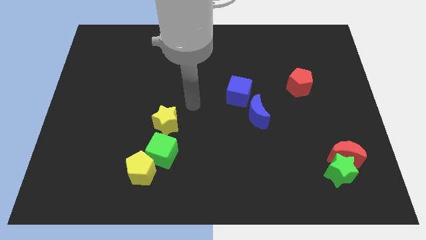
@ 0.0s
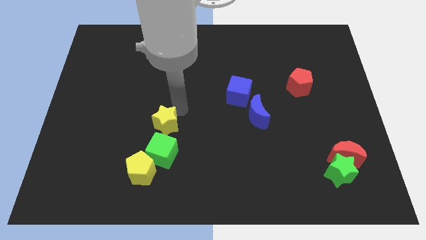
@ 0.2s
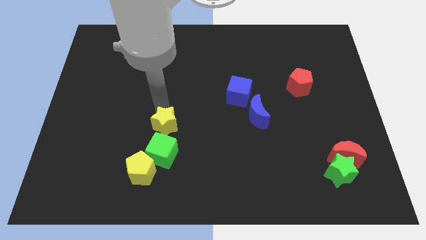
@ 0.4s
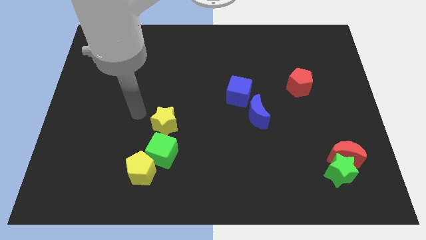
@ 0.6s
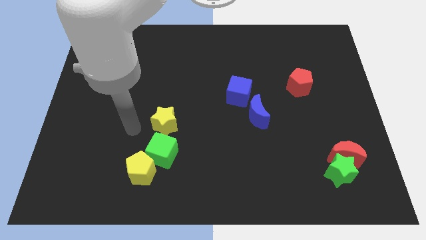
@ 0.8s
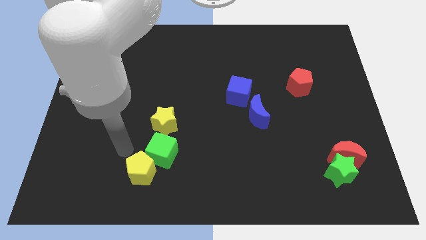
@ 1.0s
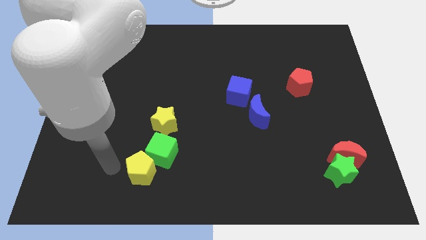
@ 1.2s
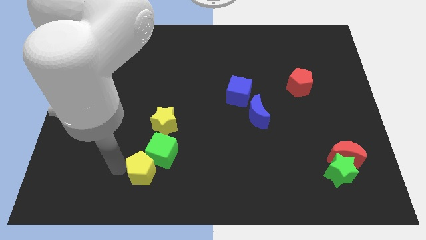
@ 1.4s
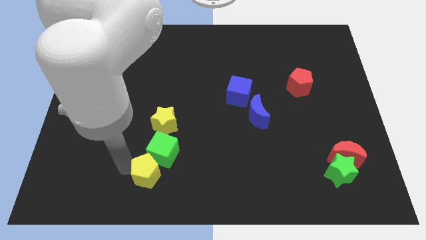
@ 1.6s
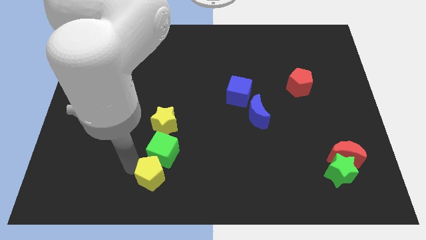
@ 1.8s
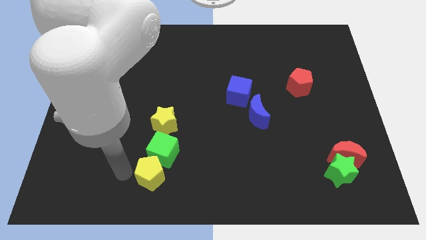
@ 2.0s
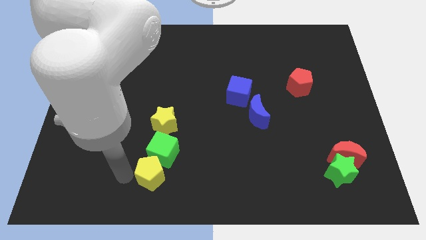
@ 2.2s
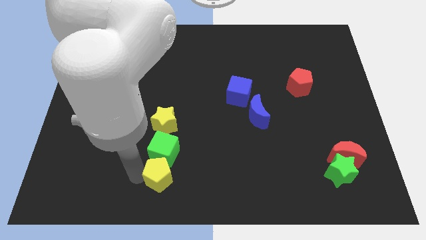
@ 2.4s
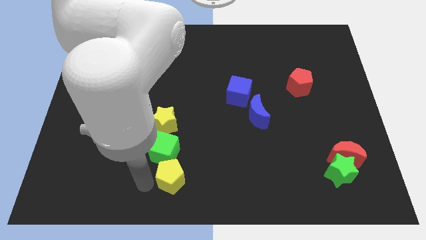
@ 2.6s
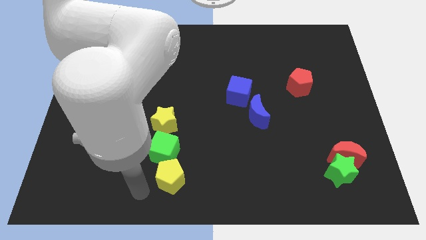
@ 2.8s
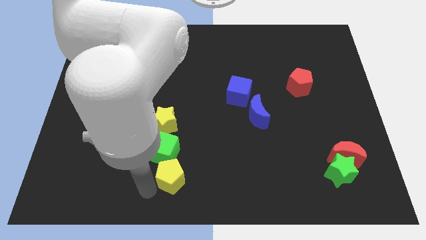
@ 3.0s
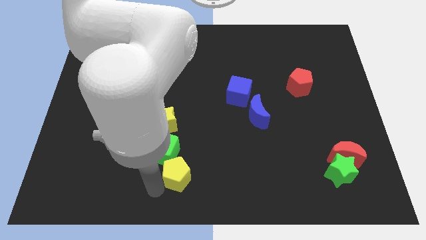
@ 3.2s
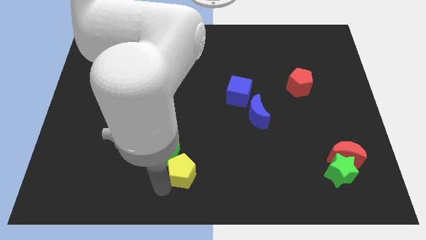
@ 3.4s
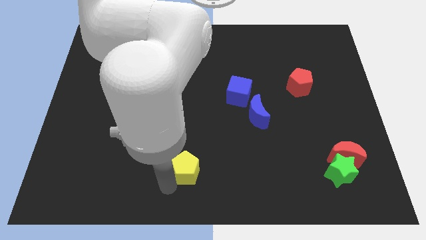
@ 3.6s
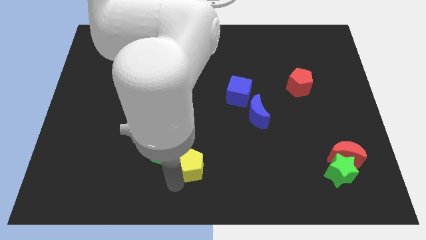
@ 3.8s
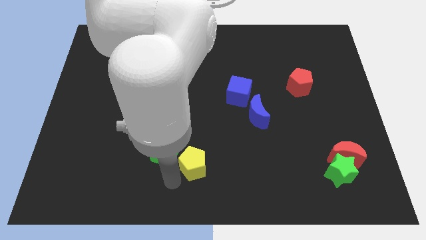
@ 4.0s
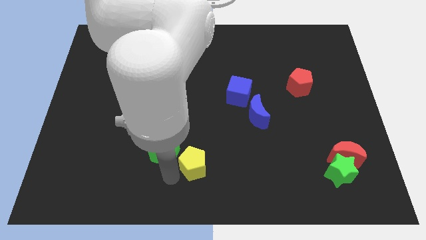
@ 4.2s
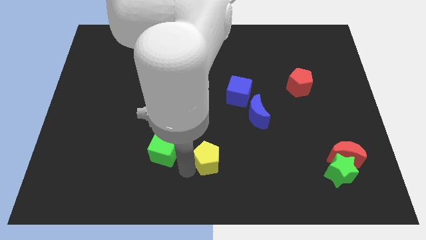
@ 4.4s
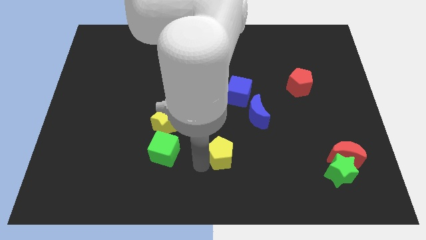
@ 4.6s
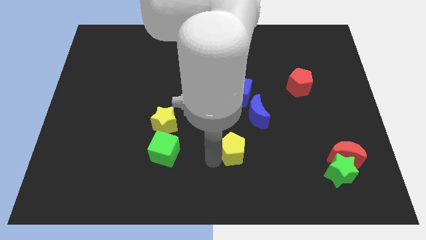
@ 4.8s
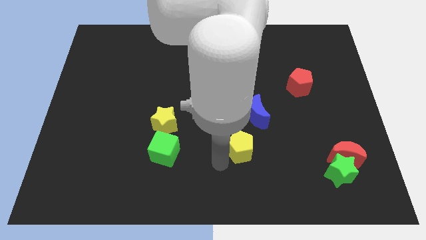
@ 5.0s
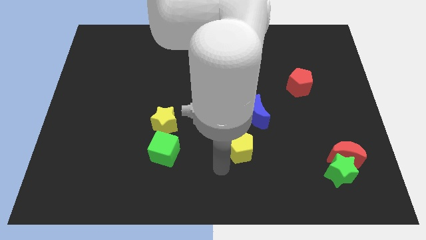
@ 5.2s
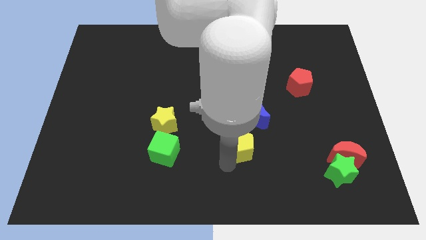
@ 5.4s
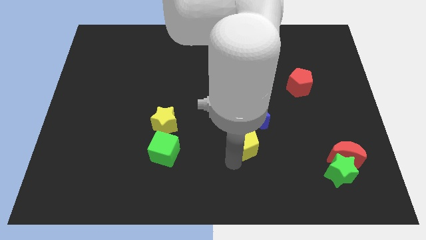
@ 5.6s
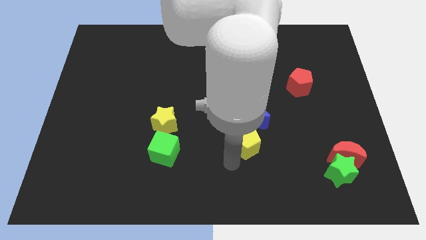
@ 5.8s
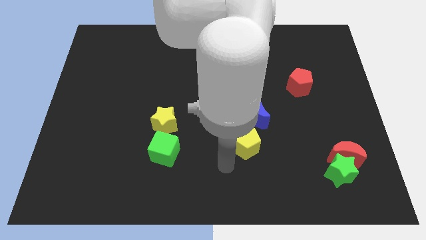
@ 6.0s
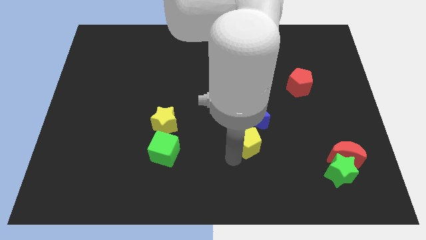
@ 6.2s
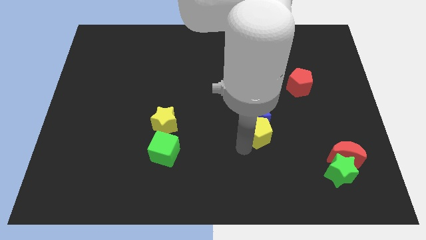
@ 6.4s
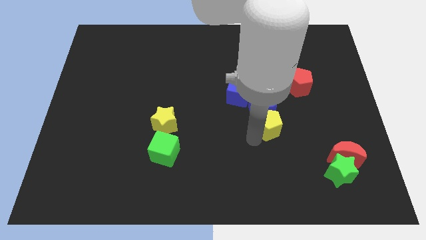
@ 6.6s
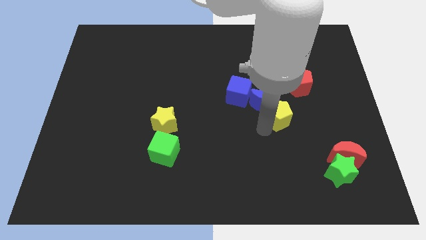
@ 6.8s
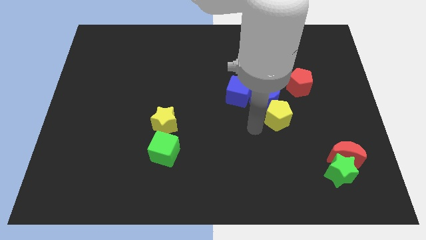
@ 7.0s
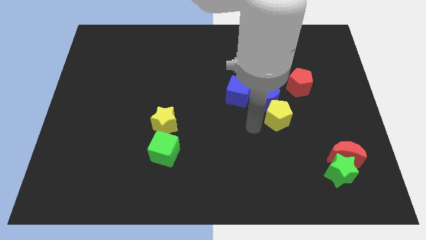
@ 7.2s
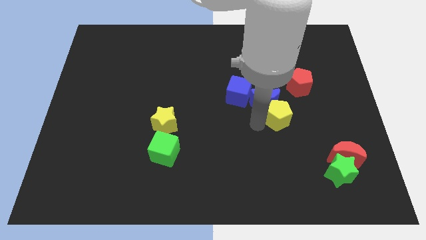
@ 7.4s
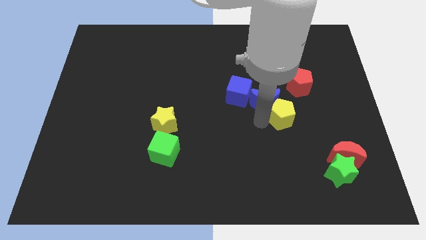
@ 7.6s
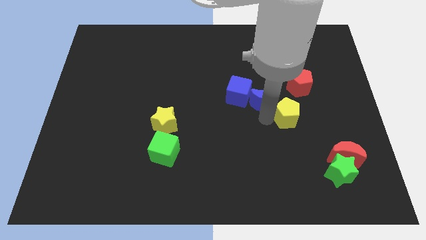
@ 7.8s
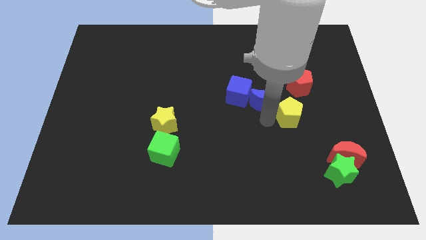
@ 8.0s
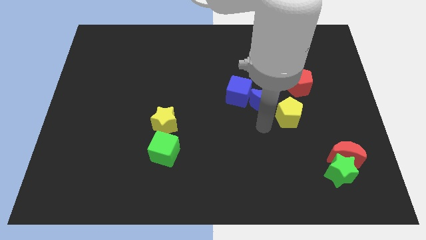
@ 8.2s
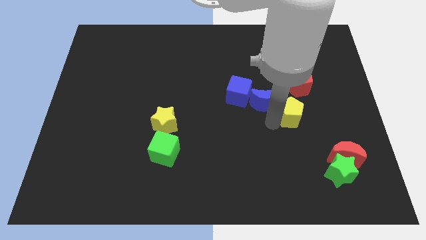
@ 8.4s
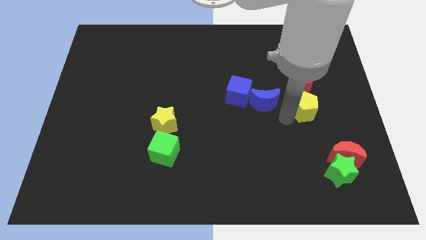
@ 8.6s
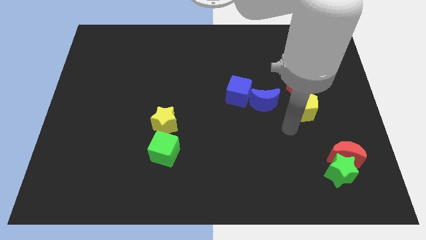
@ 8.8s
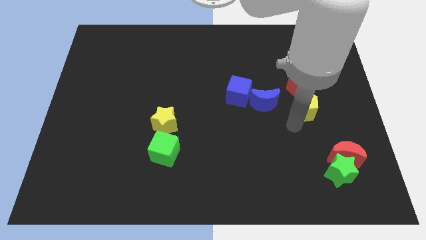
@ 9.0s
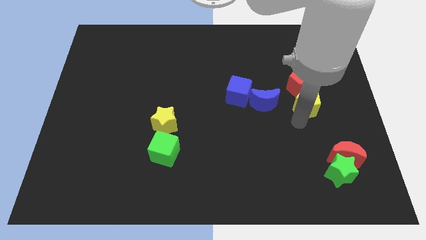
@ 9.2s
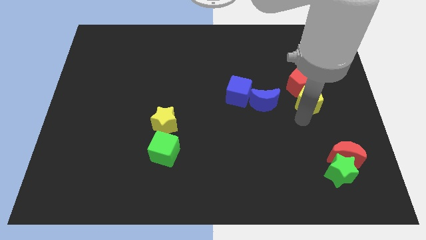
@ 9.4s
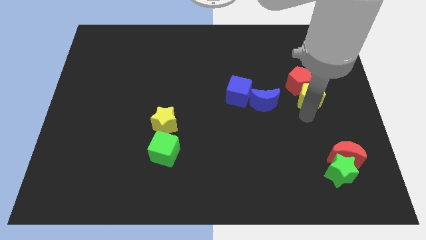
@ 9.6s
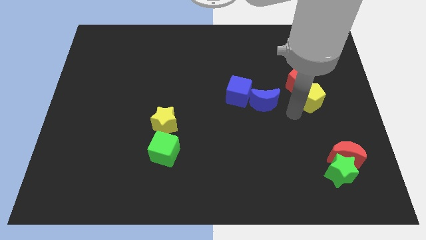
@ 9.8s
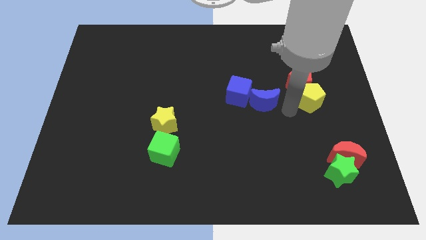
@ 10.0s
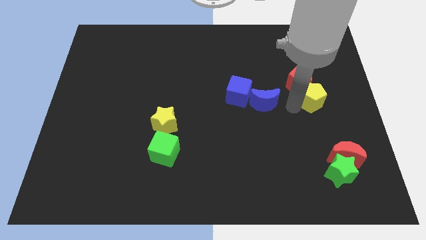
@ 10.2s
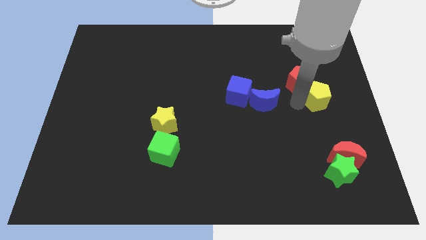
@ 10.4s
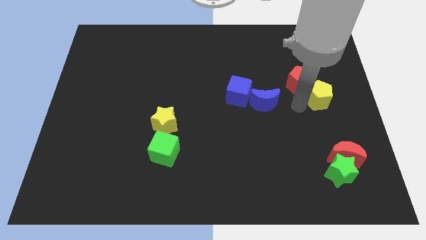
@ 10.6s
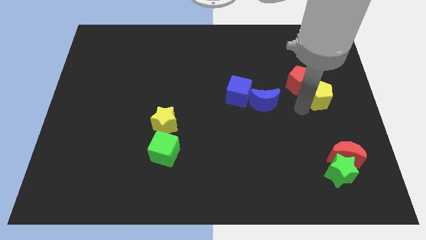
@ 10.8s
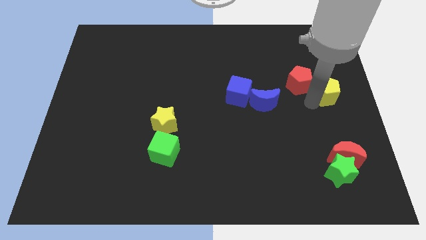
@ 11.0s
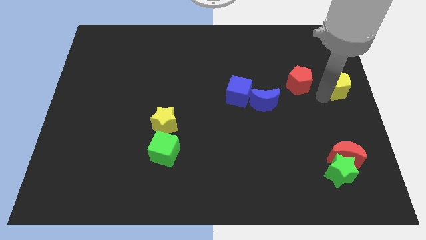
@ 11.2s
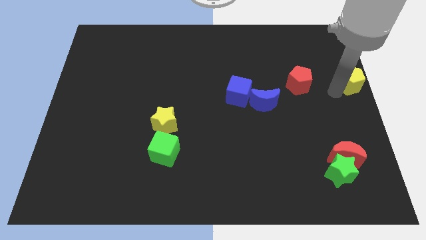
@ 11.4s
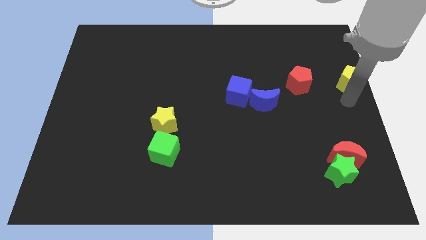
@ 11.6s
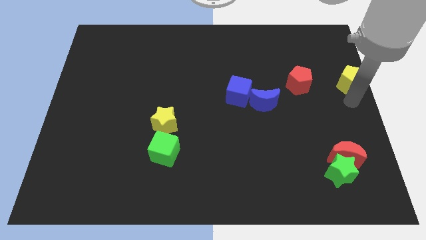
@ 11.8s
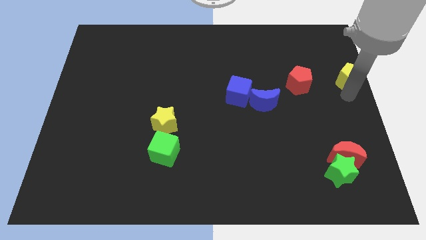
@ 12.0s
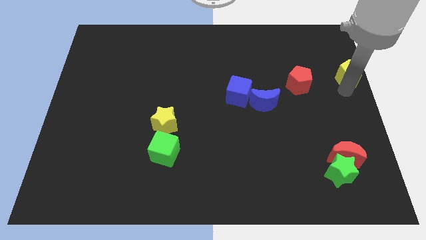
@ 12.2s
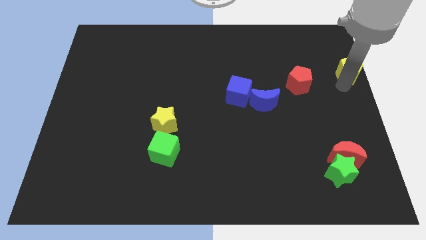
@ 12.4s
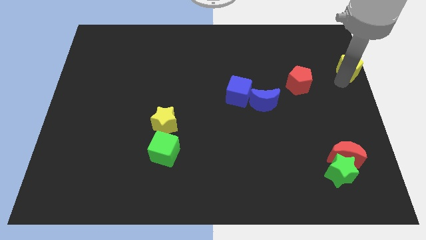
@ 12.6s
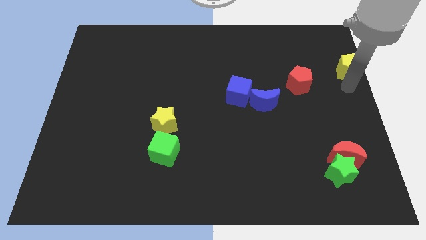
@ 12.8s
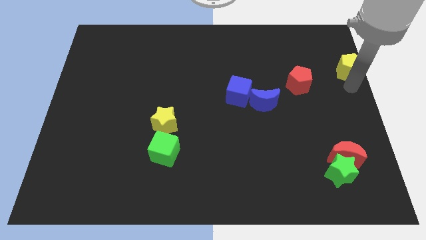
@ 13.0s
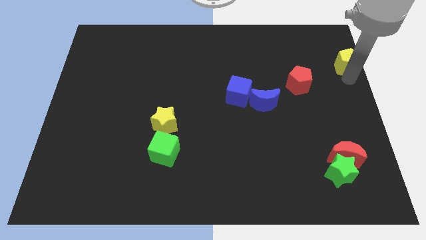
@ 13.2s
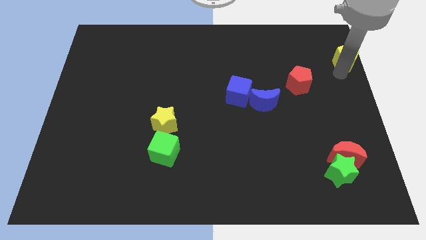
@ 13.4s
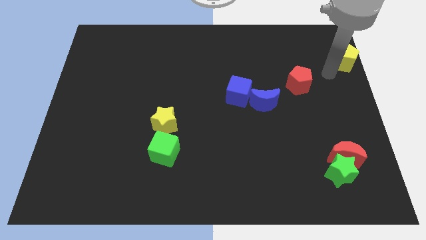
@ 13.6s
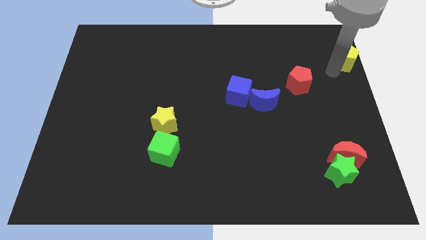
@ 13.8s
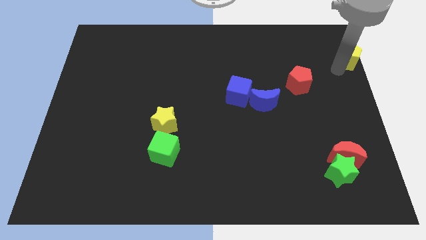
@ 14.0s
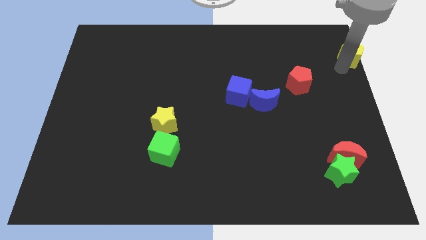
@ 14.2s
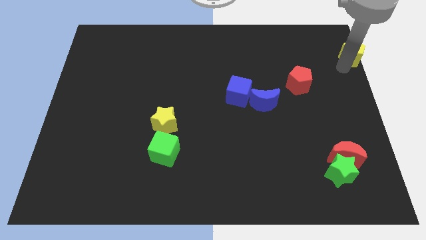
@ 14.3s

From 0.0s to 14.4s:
move the yellow pentagon to the top right
